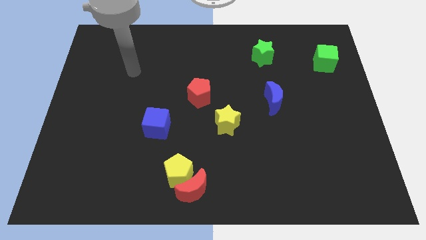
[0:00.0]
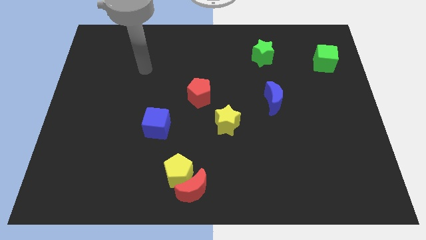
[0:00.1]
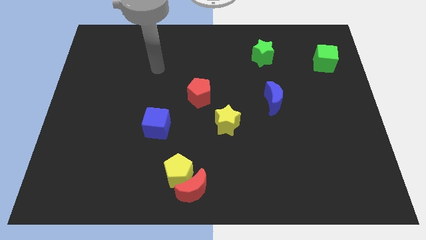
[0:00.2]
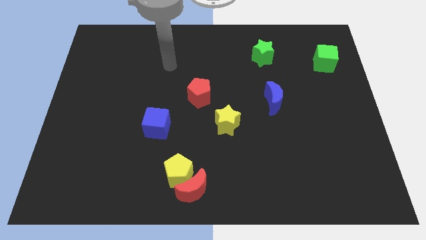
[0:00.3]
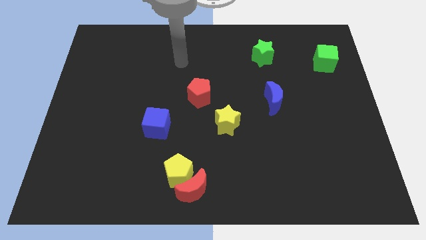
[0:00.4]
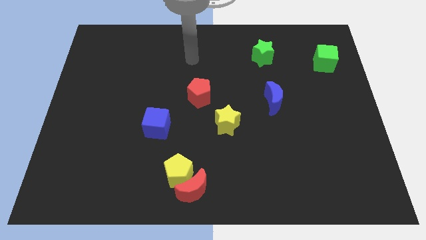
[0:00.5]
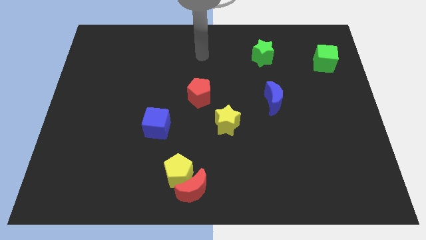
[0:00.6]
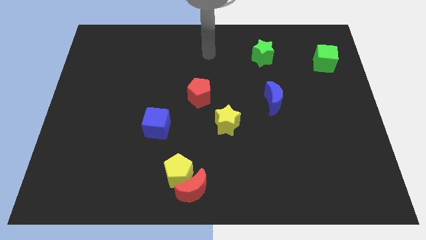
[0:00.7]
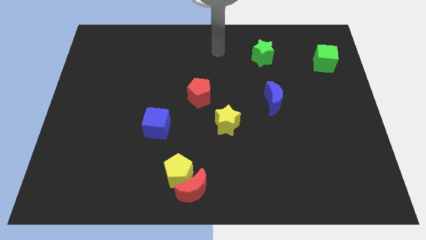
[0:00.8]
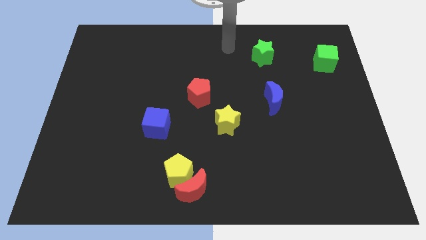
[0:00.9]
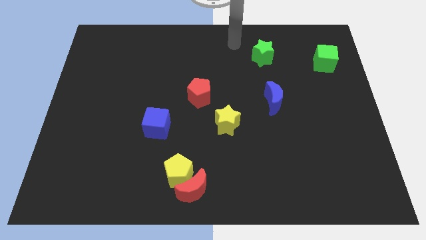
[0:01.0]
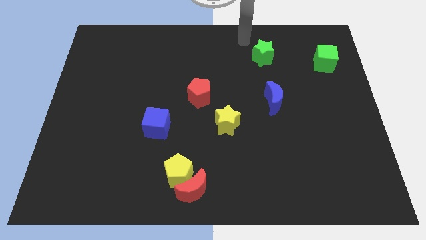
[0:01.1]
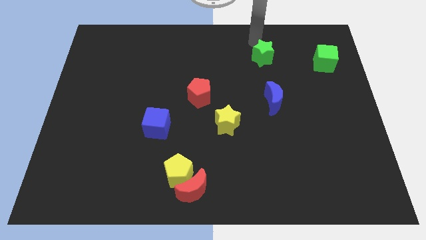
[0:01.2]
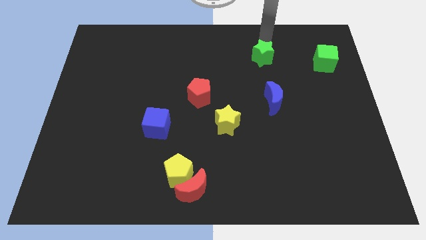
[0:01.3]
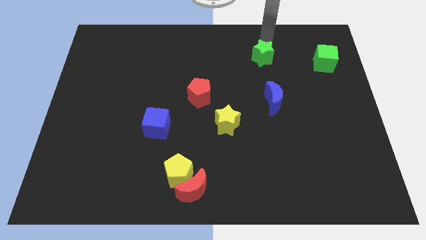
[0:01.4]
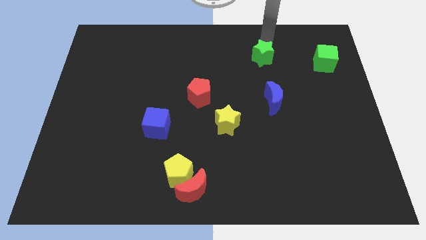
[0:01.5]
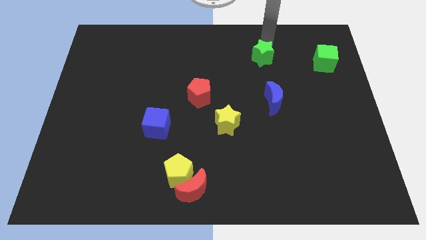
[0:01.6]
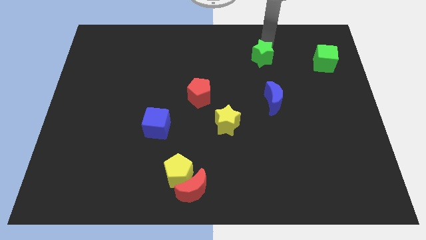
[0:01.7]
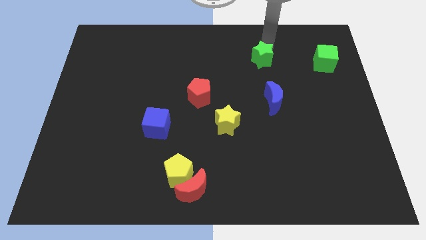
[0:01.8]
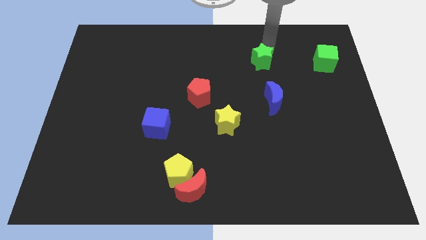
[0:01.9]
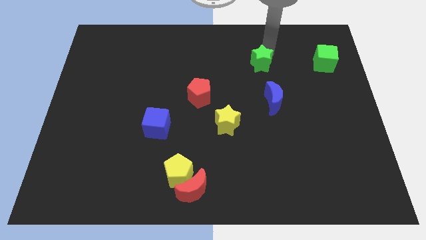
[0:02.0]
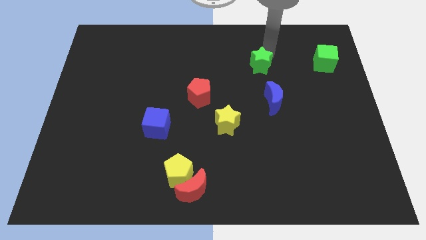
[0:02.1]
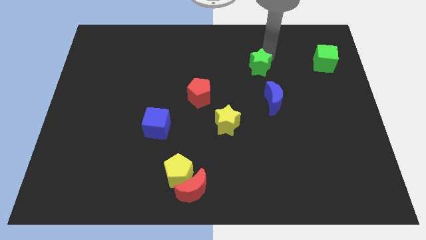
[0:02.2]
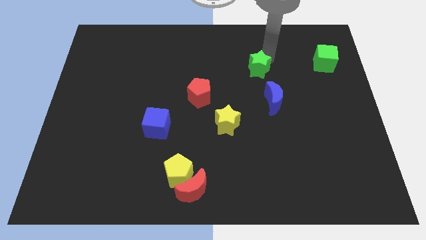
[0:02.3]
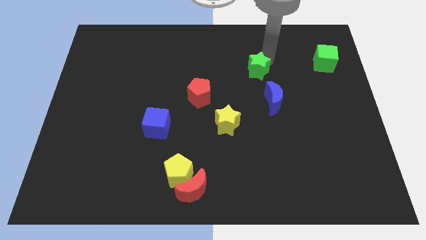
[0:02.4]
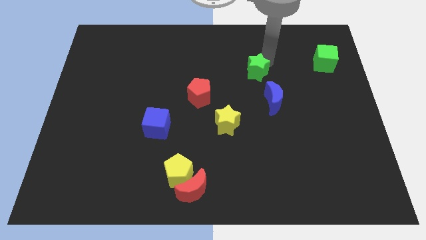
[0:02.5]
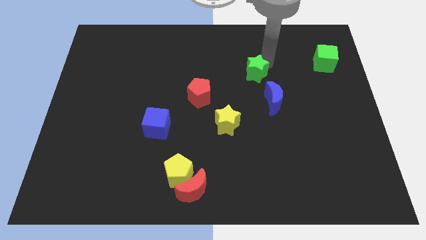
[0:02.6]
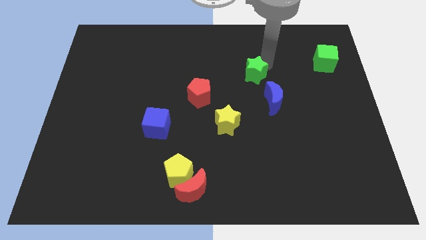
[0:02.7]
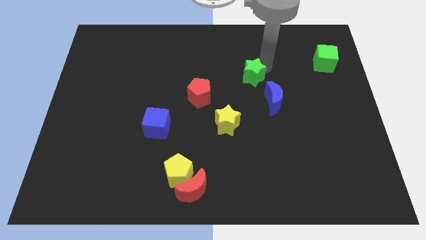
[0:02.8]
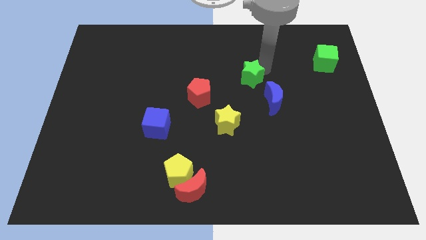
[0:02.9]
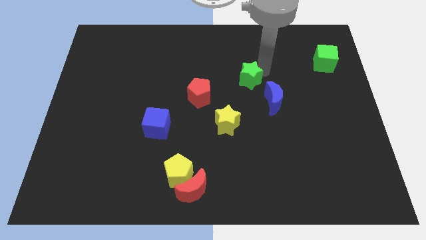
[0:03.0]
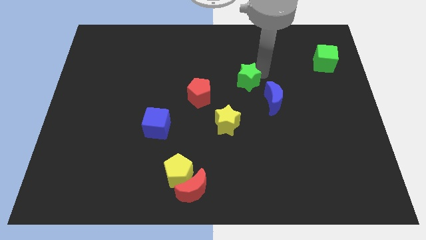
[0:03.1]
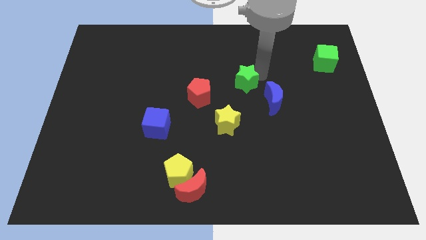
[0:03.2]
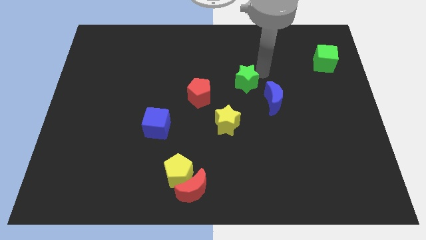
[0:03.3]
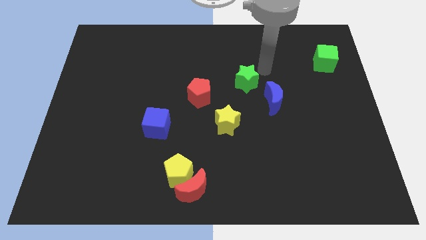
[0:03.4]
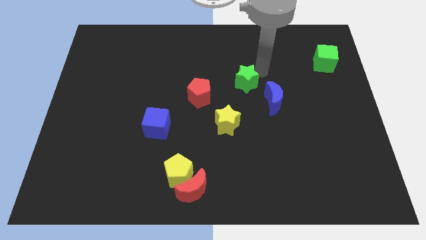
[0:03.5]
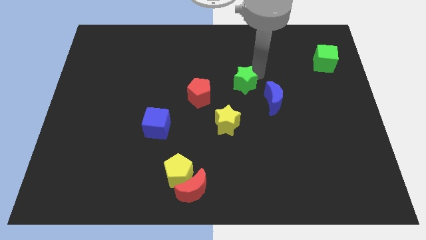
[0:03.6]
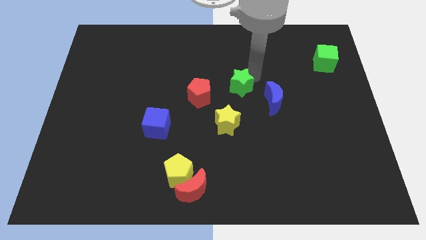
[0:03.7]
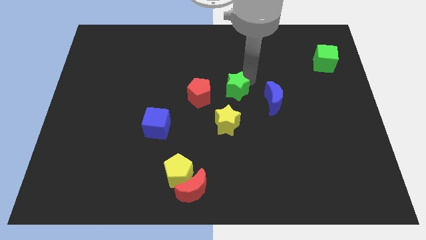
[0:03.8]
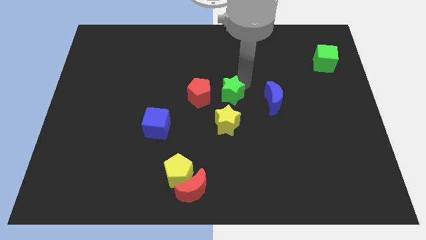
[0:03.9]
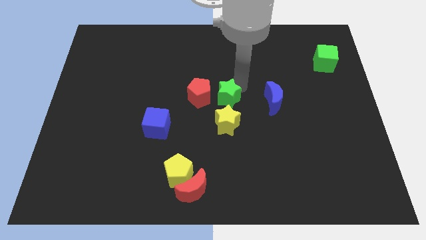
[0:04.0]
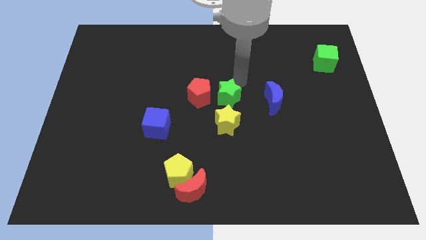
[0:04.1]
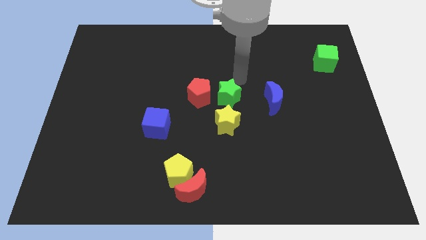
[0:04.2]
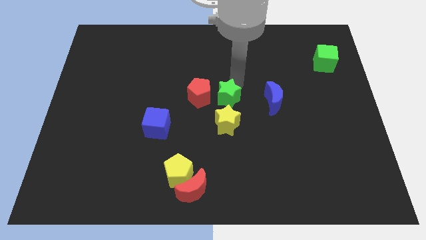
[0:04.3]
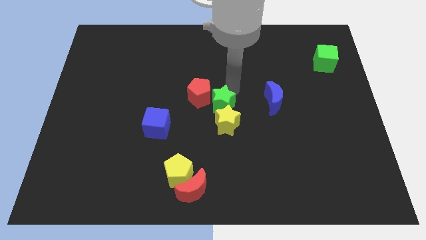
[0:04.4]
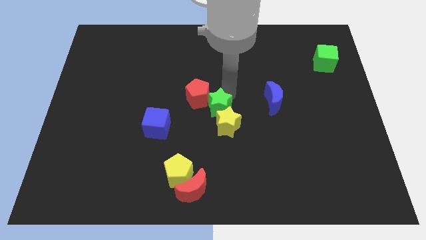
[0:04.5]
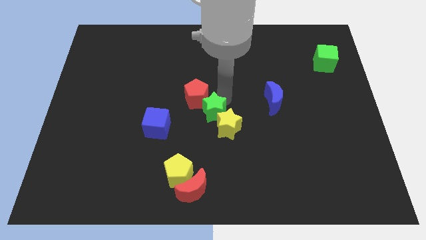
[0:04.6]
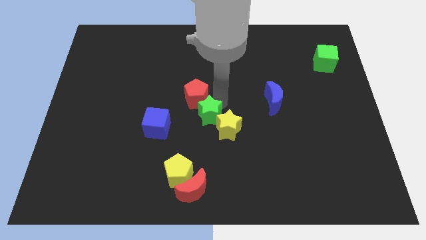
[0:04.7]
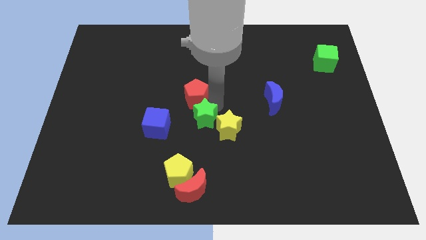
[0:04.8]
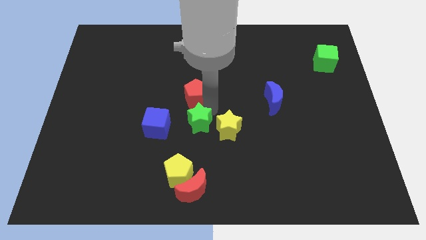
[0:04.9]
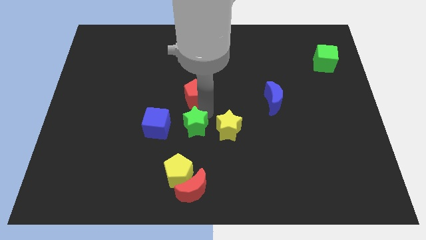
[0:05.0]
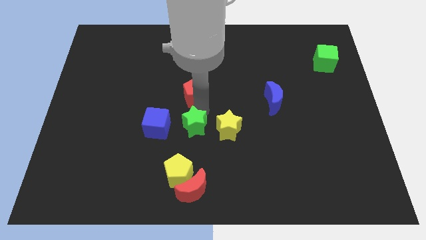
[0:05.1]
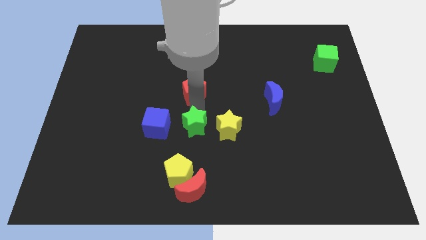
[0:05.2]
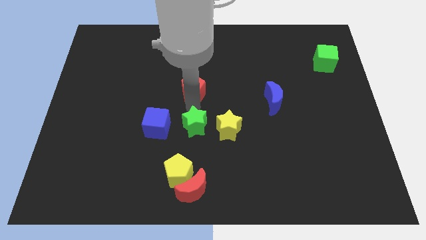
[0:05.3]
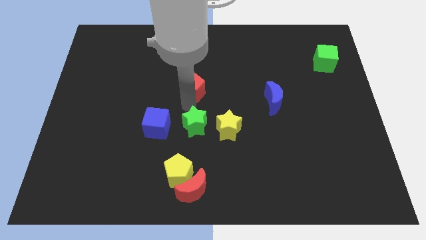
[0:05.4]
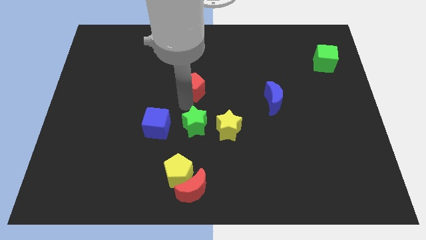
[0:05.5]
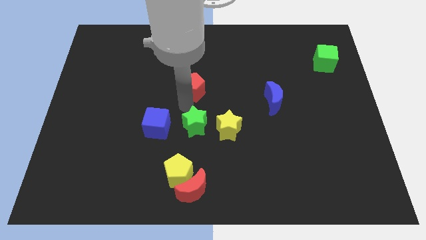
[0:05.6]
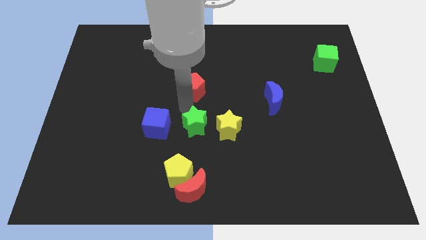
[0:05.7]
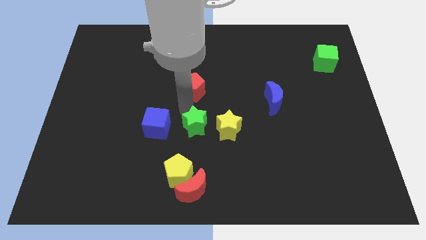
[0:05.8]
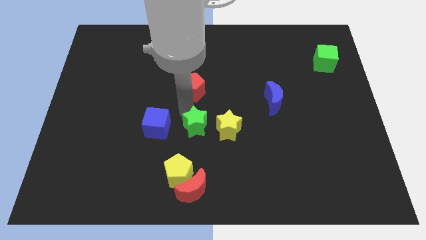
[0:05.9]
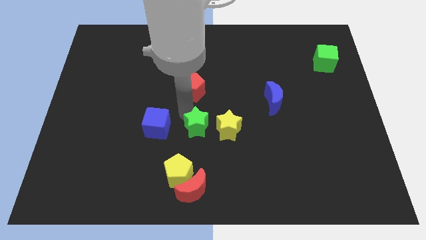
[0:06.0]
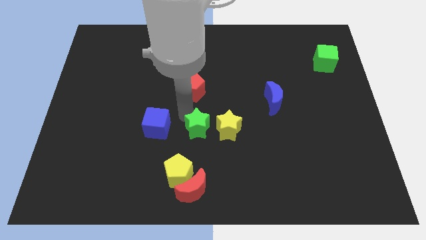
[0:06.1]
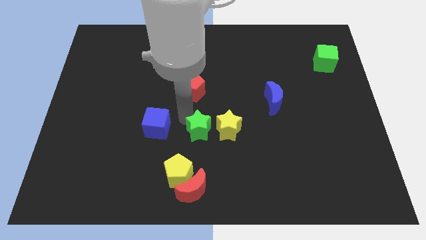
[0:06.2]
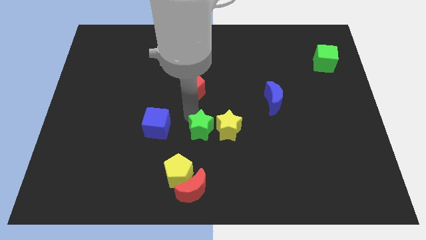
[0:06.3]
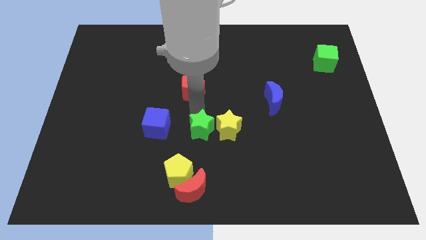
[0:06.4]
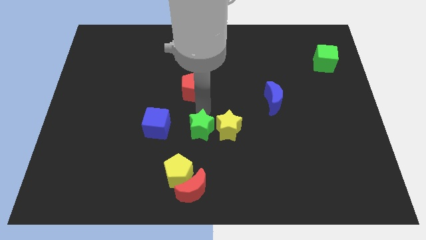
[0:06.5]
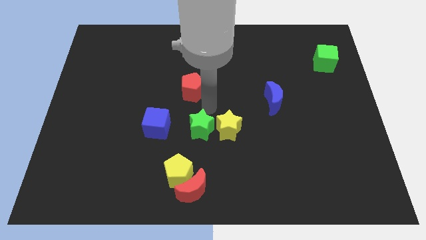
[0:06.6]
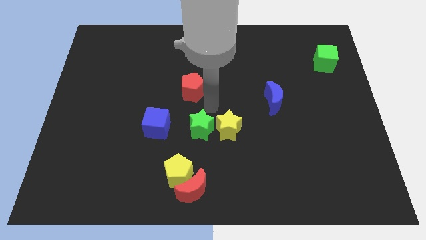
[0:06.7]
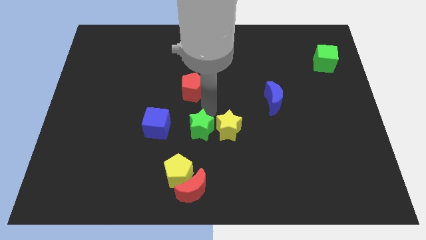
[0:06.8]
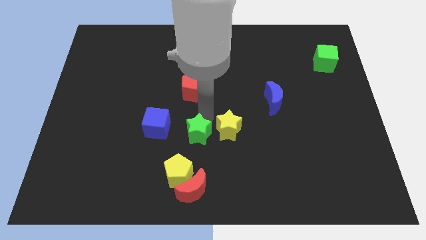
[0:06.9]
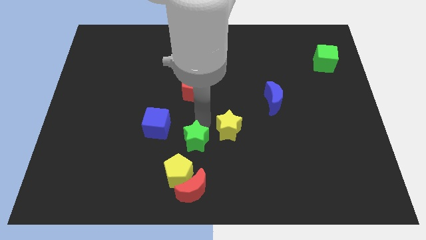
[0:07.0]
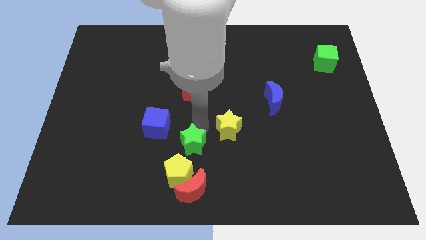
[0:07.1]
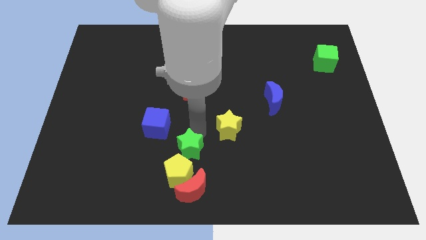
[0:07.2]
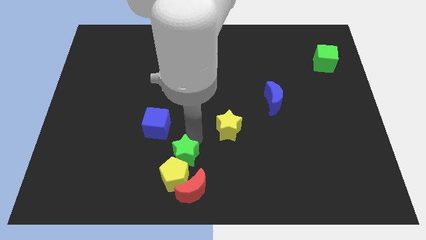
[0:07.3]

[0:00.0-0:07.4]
push the green star next to the yellow pentagon
